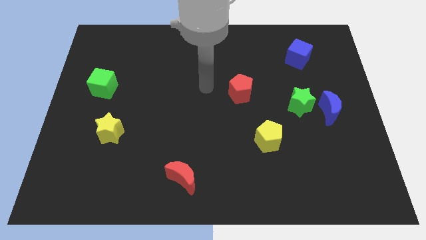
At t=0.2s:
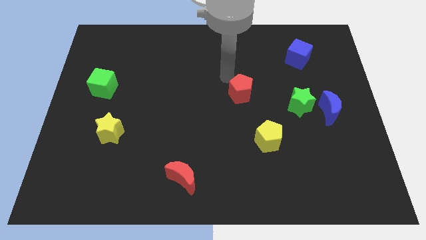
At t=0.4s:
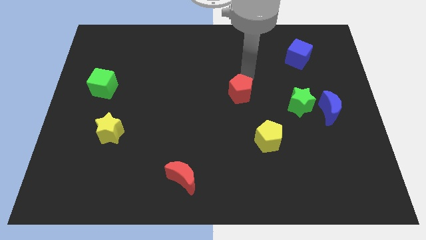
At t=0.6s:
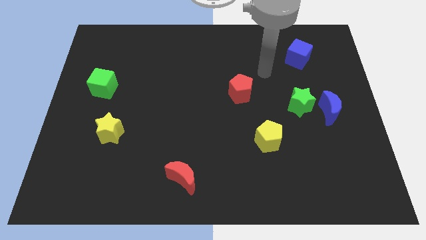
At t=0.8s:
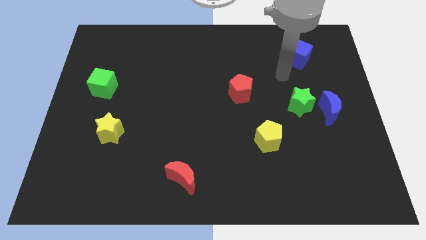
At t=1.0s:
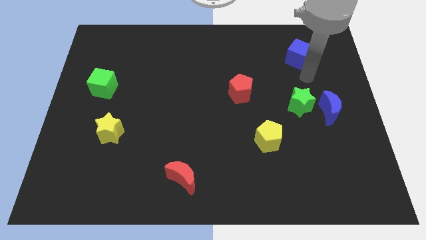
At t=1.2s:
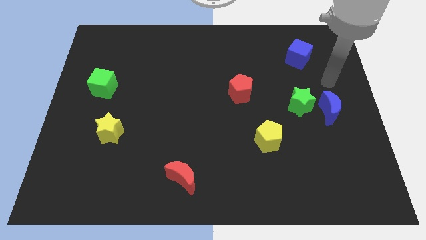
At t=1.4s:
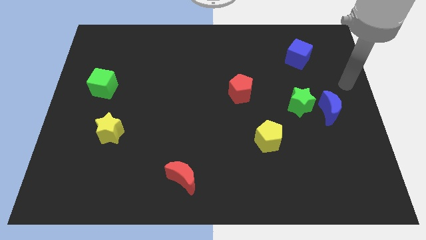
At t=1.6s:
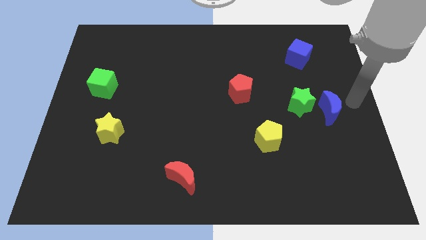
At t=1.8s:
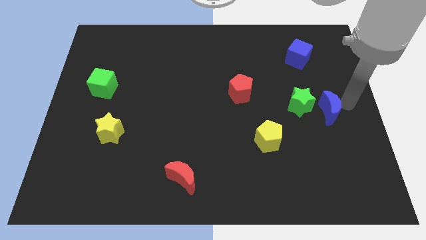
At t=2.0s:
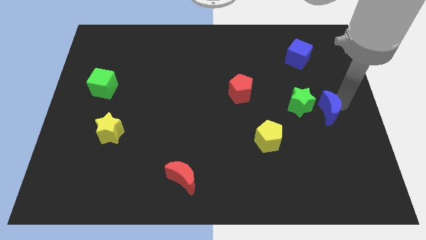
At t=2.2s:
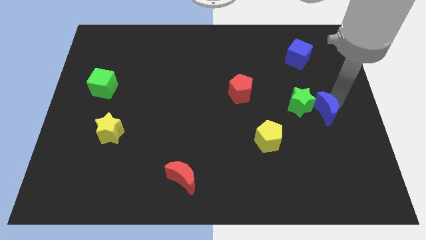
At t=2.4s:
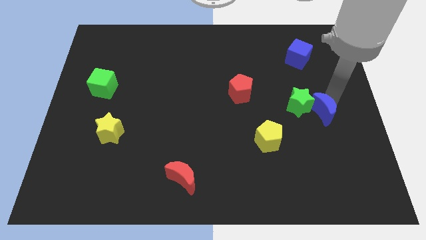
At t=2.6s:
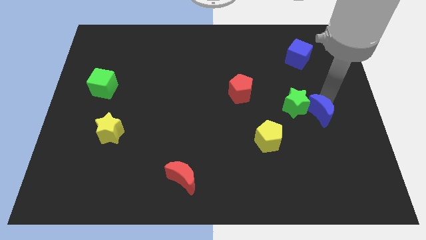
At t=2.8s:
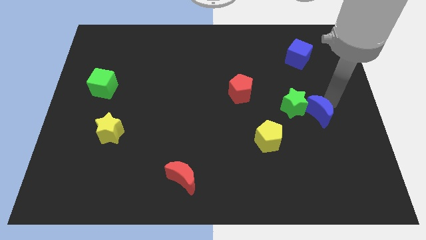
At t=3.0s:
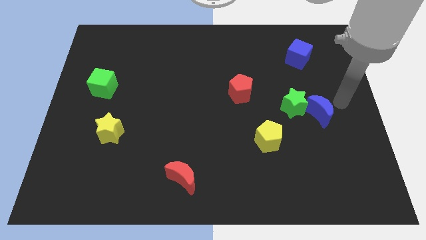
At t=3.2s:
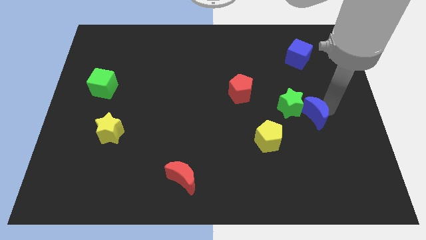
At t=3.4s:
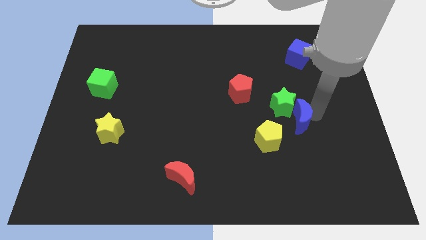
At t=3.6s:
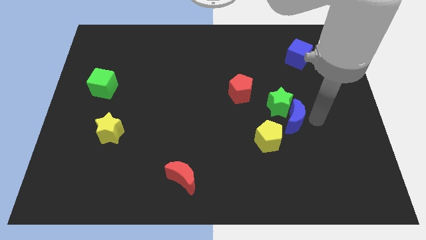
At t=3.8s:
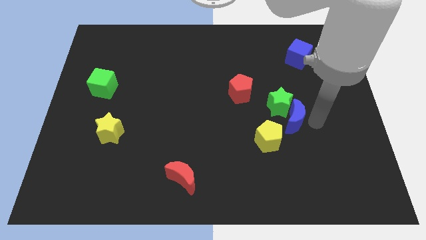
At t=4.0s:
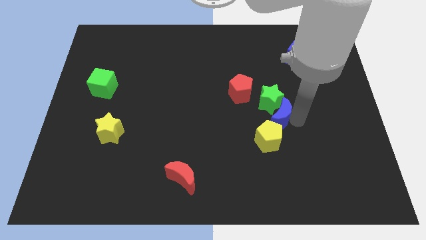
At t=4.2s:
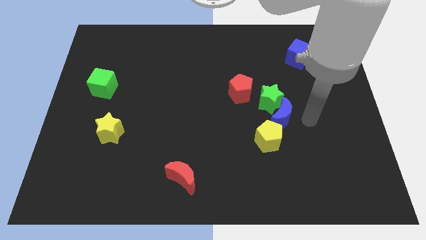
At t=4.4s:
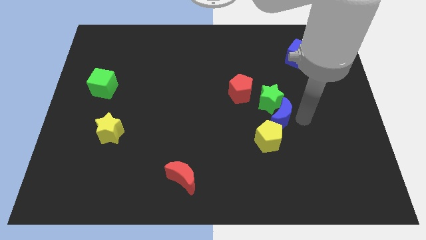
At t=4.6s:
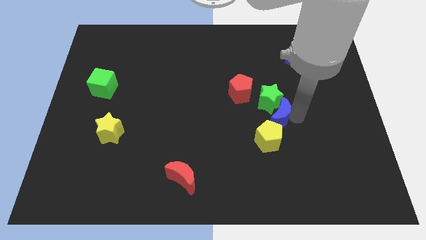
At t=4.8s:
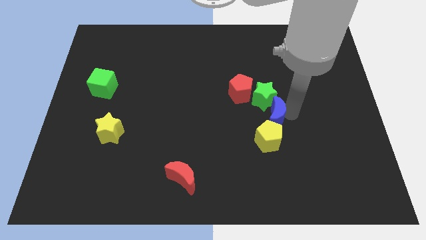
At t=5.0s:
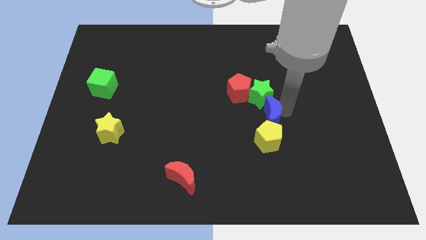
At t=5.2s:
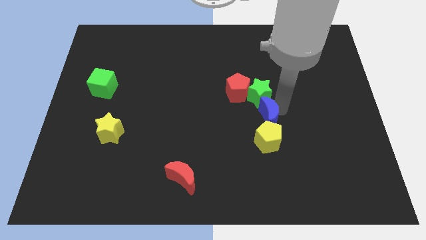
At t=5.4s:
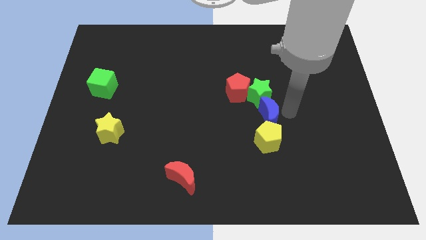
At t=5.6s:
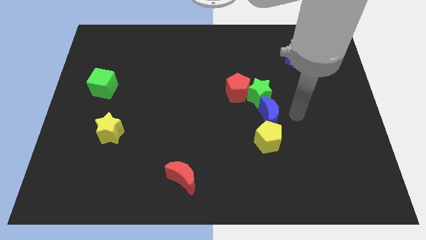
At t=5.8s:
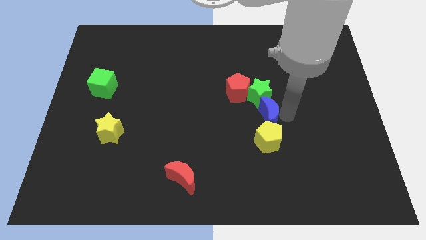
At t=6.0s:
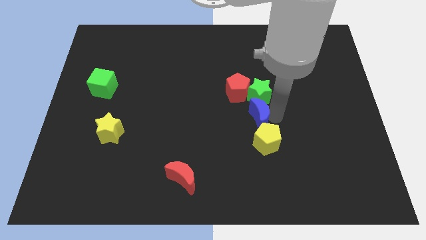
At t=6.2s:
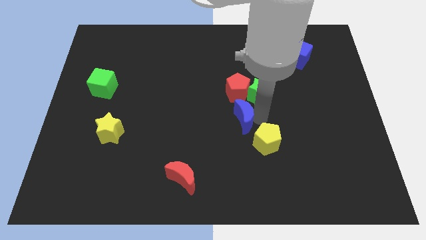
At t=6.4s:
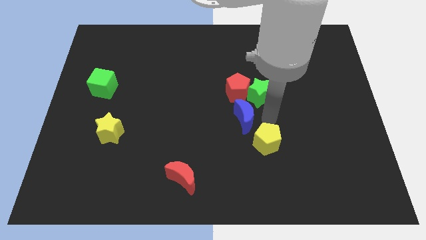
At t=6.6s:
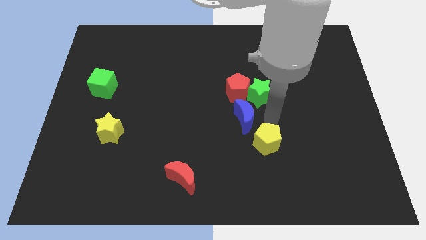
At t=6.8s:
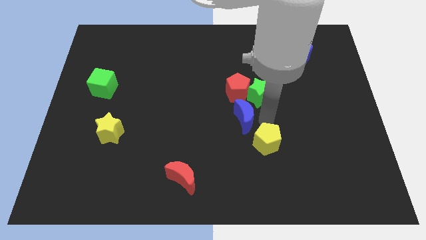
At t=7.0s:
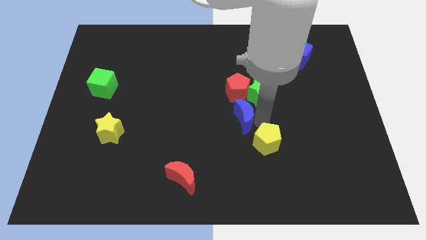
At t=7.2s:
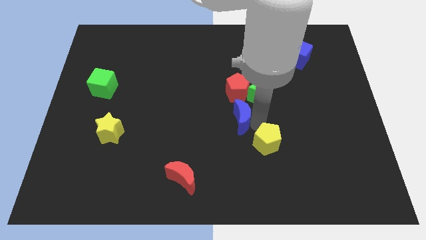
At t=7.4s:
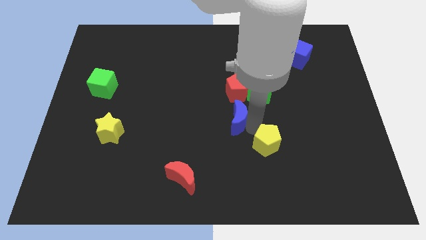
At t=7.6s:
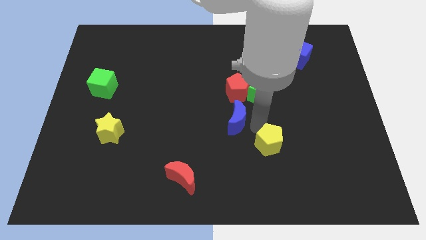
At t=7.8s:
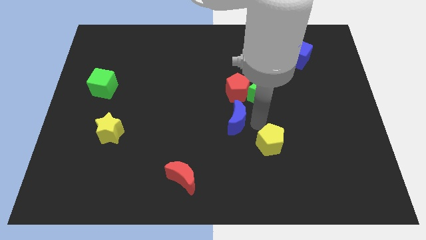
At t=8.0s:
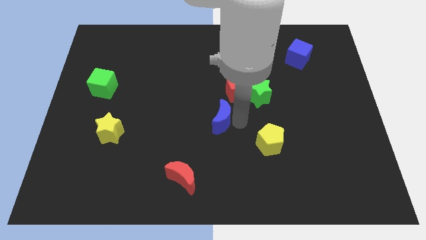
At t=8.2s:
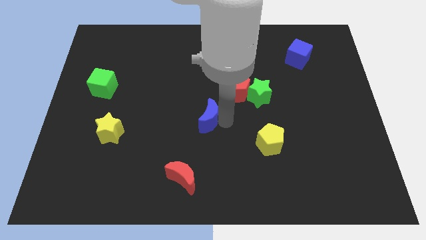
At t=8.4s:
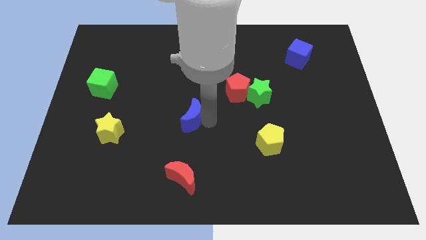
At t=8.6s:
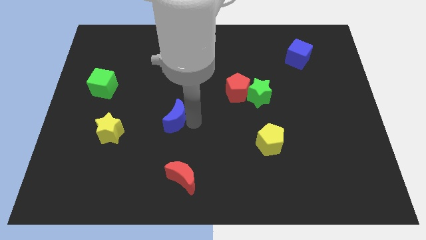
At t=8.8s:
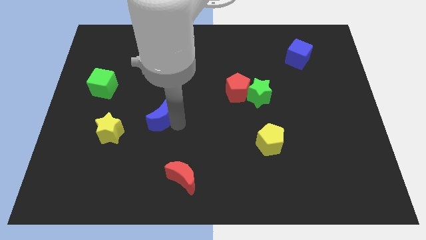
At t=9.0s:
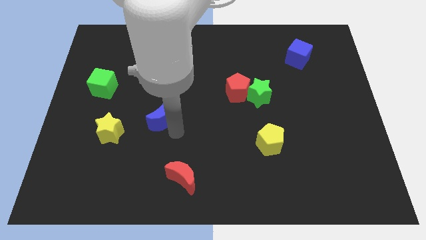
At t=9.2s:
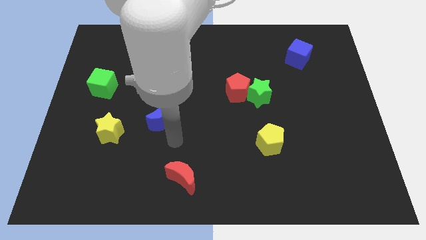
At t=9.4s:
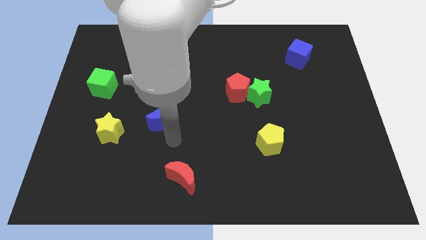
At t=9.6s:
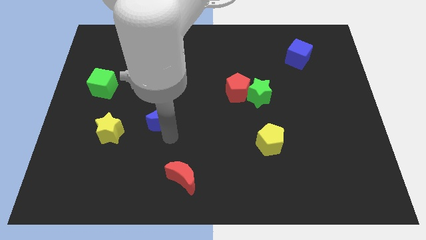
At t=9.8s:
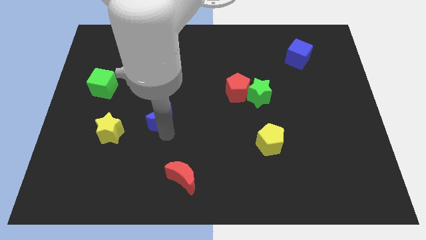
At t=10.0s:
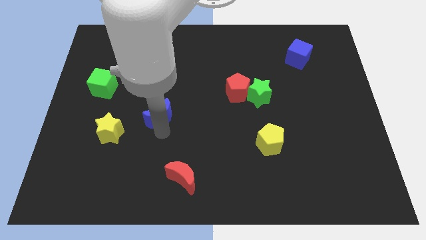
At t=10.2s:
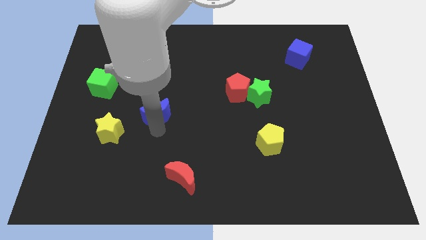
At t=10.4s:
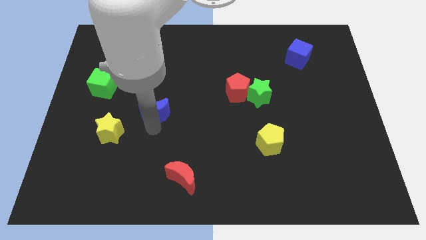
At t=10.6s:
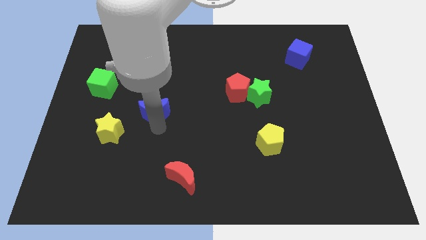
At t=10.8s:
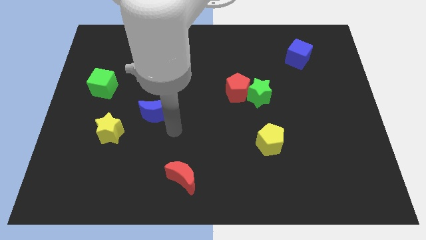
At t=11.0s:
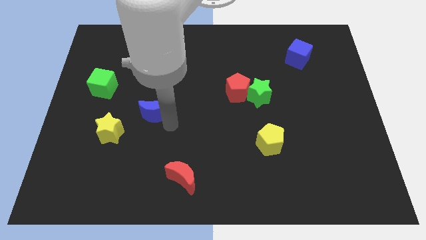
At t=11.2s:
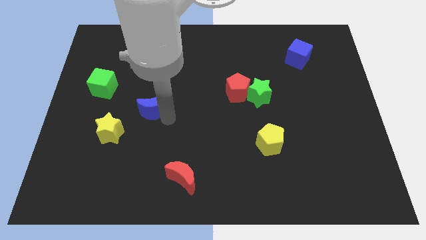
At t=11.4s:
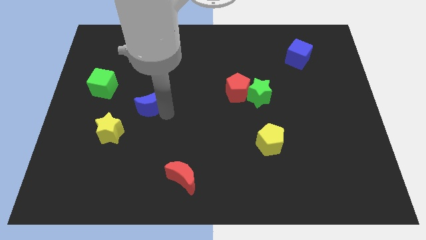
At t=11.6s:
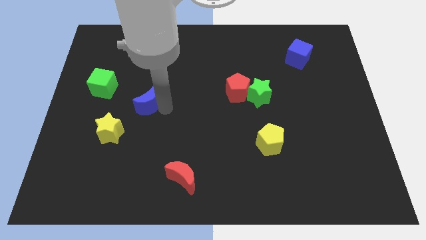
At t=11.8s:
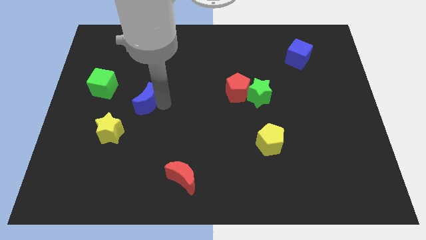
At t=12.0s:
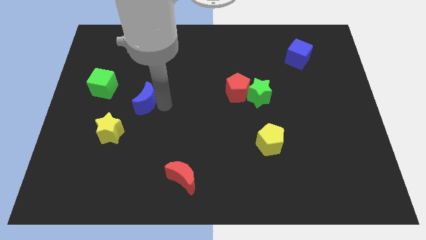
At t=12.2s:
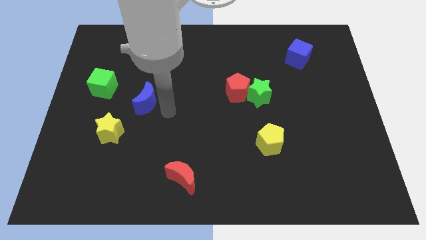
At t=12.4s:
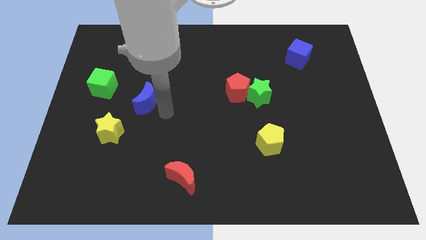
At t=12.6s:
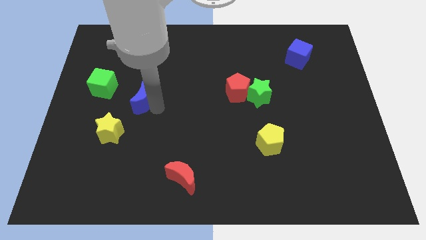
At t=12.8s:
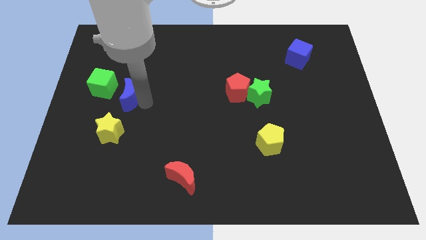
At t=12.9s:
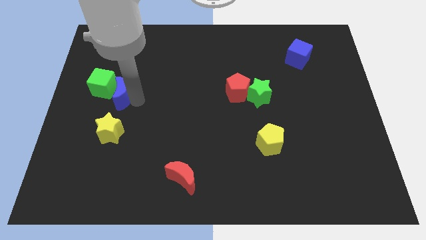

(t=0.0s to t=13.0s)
push the blue moon next to the green cube
